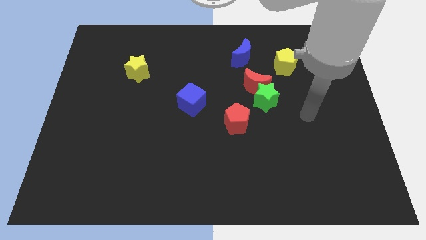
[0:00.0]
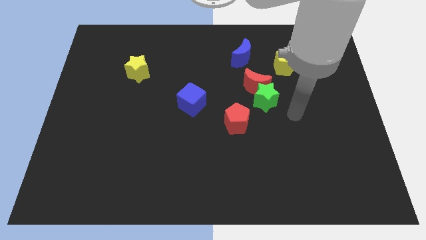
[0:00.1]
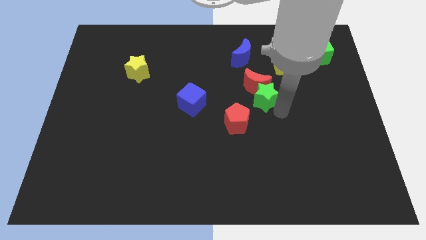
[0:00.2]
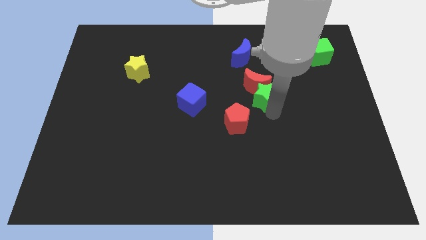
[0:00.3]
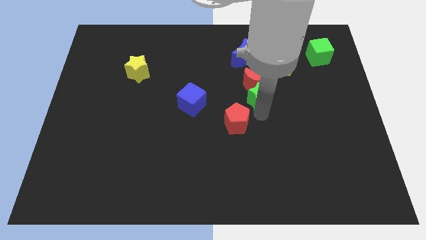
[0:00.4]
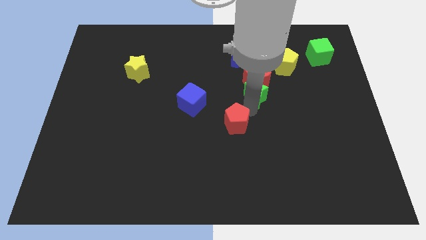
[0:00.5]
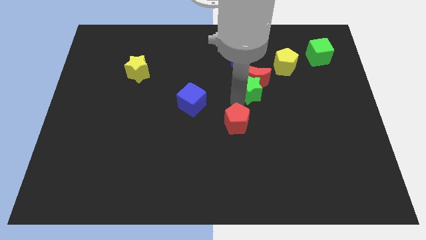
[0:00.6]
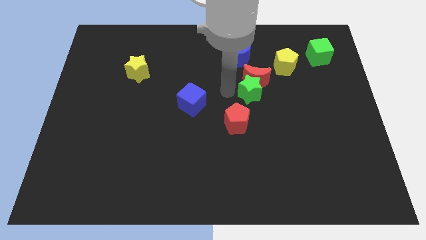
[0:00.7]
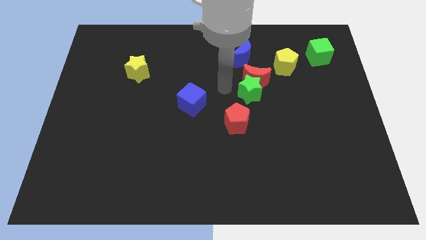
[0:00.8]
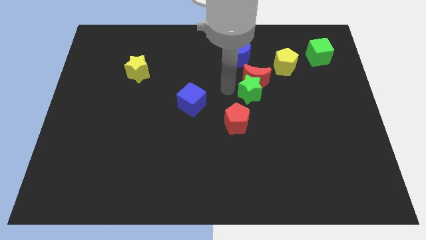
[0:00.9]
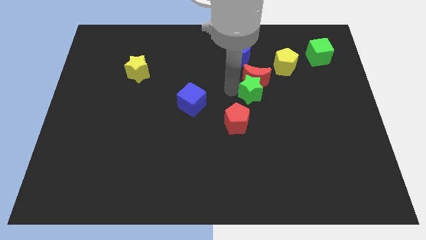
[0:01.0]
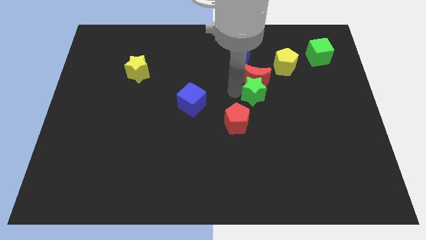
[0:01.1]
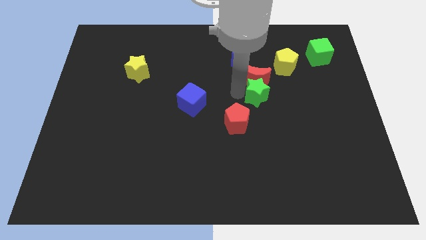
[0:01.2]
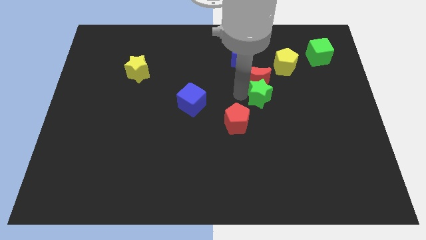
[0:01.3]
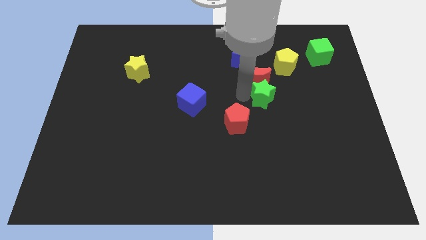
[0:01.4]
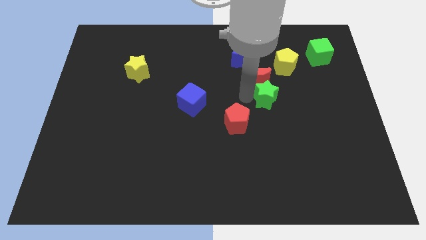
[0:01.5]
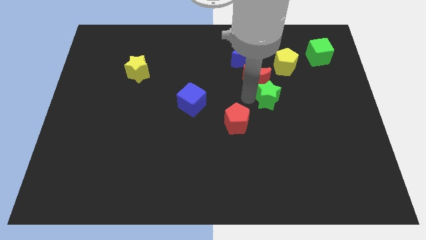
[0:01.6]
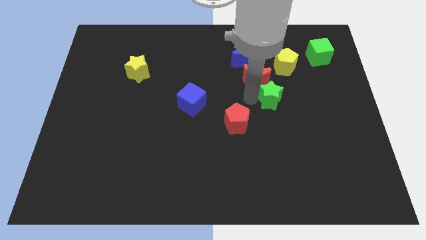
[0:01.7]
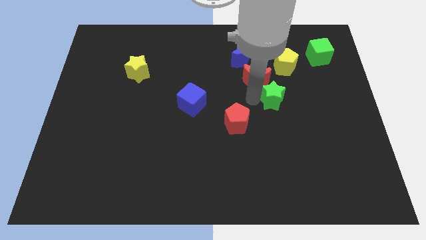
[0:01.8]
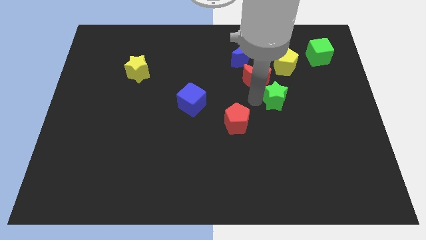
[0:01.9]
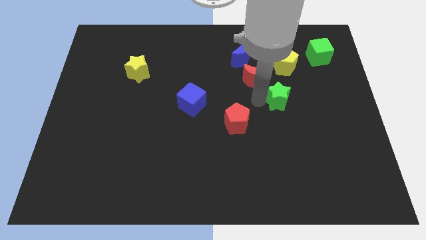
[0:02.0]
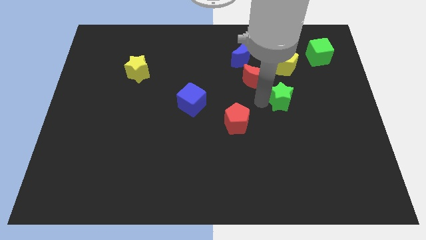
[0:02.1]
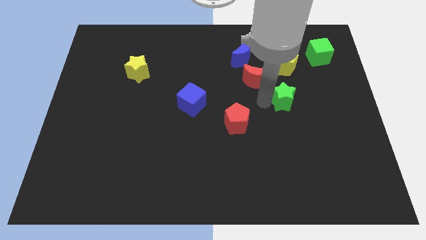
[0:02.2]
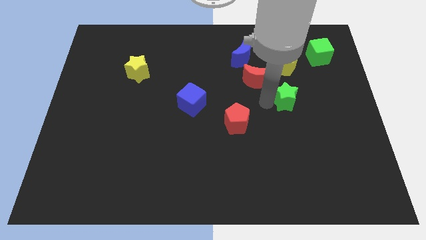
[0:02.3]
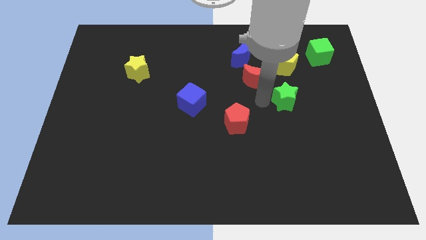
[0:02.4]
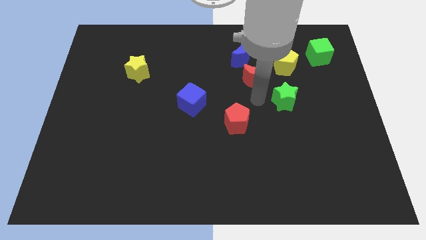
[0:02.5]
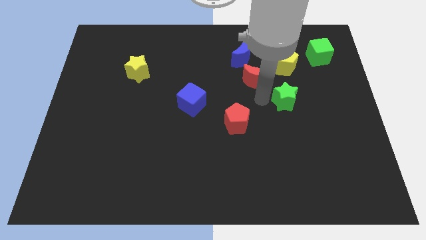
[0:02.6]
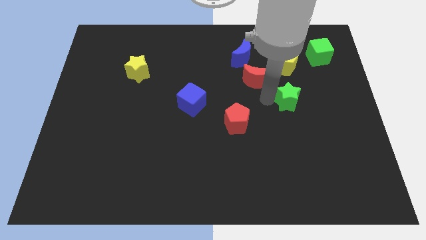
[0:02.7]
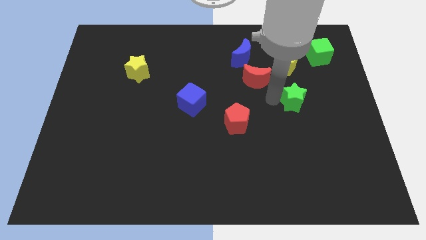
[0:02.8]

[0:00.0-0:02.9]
pull the green star apart from the red moon and red pentagon

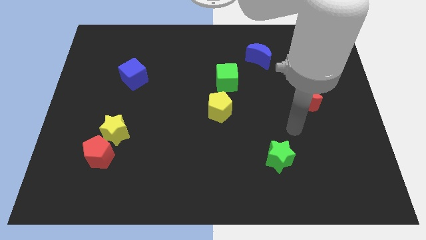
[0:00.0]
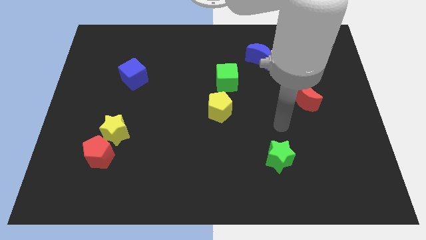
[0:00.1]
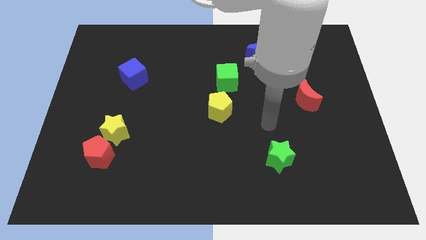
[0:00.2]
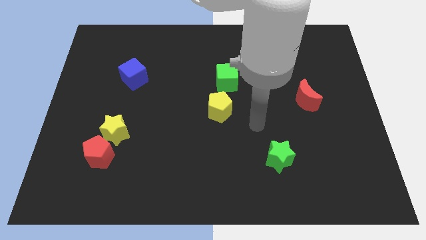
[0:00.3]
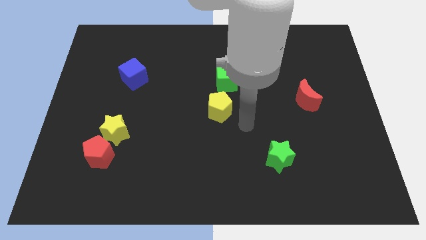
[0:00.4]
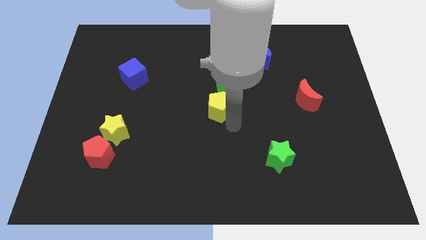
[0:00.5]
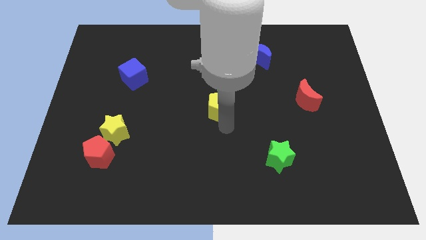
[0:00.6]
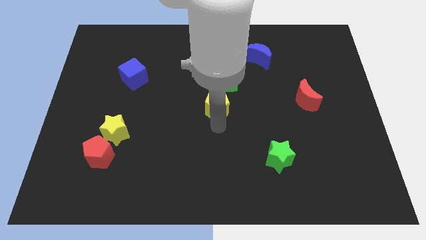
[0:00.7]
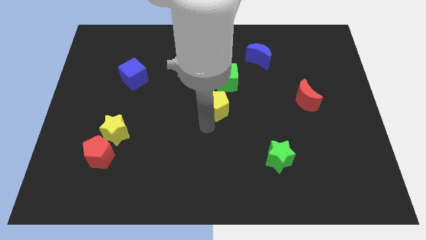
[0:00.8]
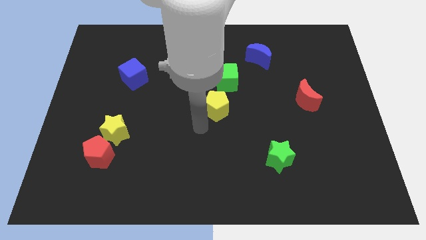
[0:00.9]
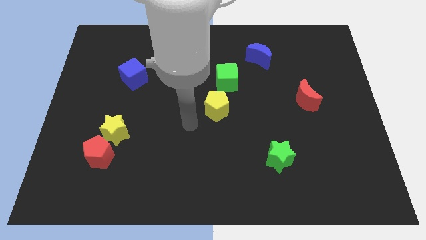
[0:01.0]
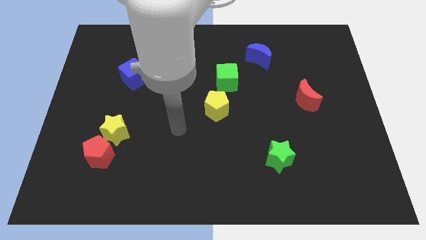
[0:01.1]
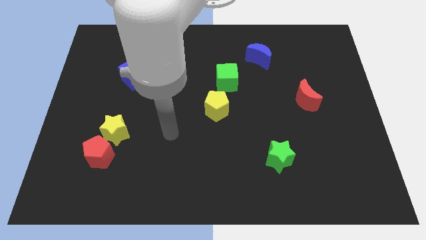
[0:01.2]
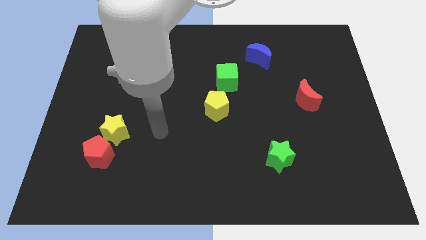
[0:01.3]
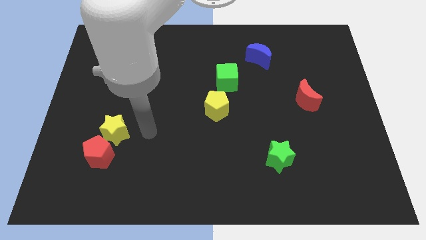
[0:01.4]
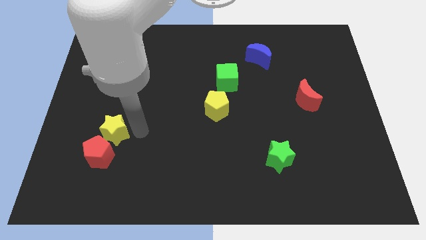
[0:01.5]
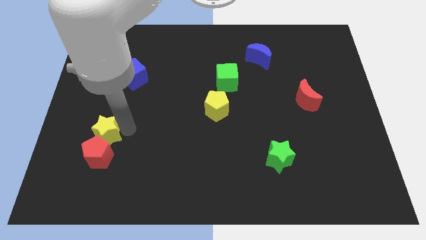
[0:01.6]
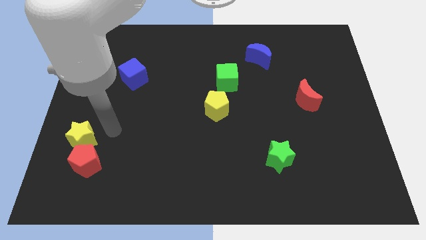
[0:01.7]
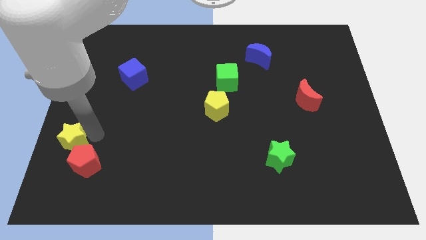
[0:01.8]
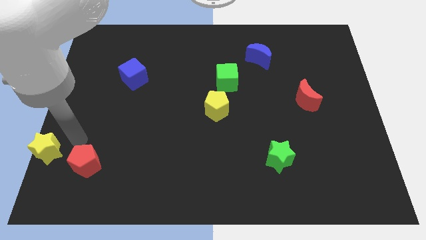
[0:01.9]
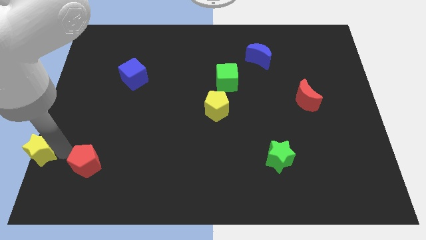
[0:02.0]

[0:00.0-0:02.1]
move the red pentagon away from the yellow star

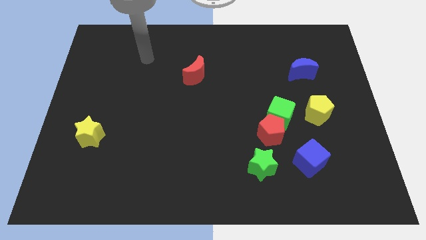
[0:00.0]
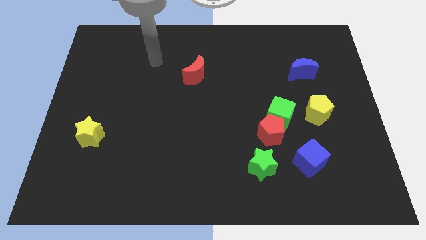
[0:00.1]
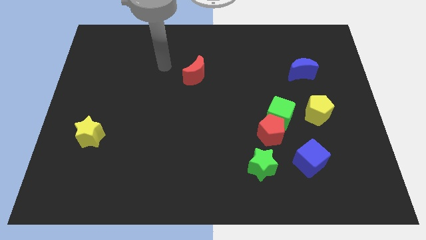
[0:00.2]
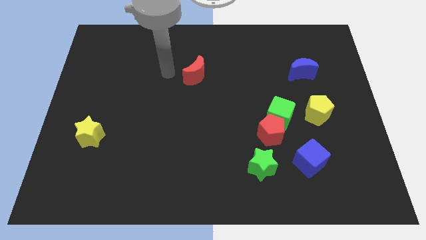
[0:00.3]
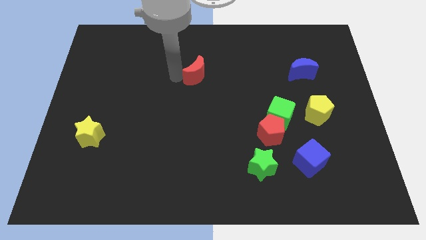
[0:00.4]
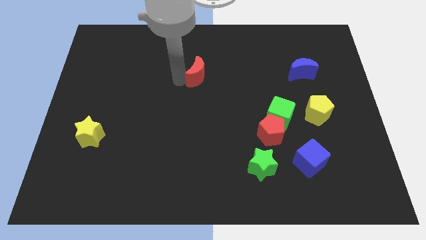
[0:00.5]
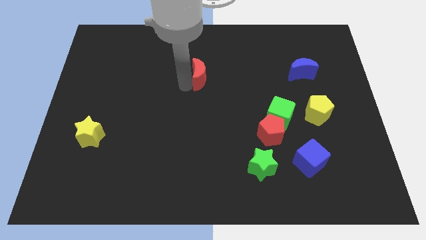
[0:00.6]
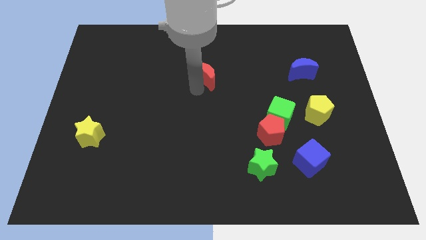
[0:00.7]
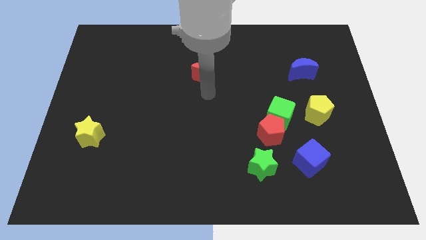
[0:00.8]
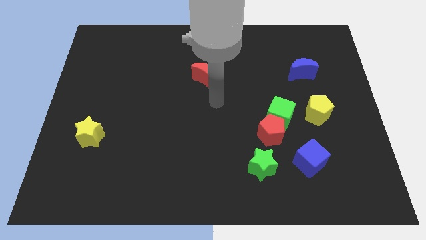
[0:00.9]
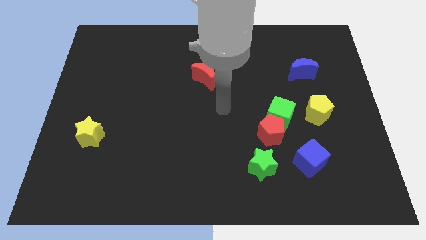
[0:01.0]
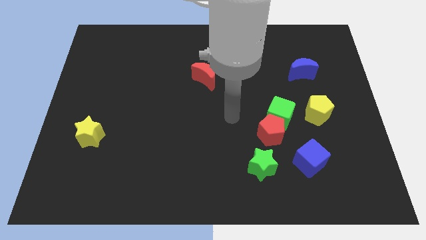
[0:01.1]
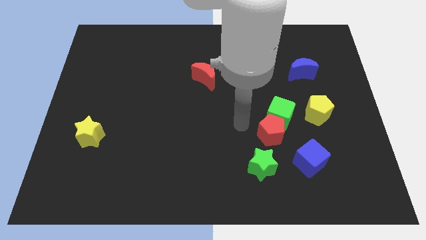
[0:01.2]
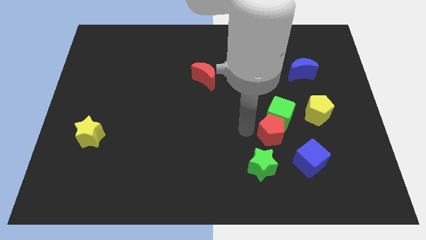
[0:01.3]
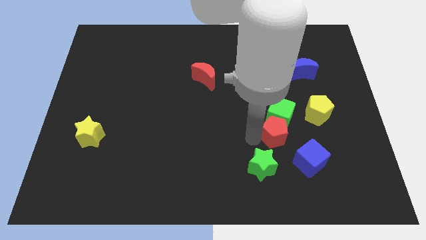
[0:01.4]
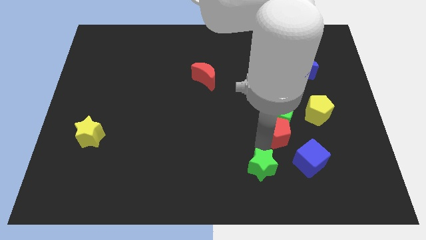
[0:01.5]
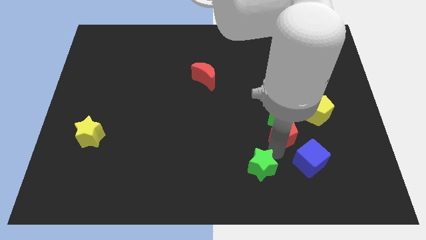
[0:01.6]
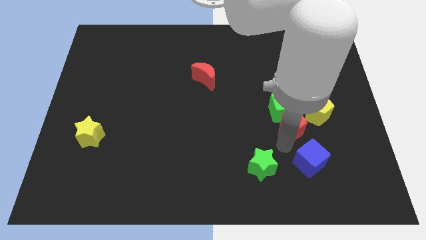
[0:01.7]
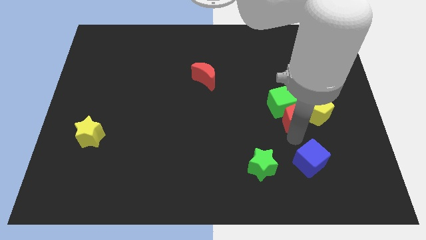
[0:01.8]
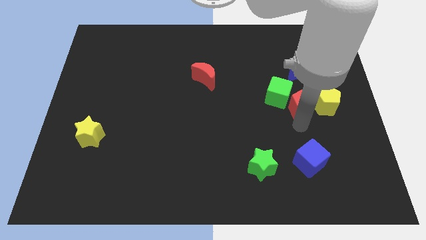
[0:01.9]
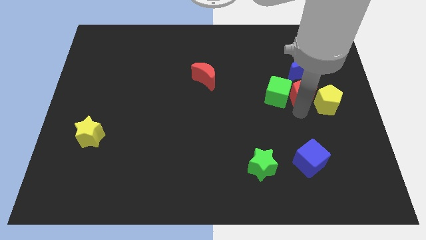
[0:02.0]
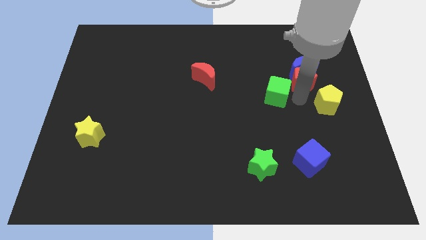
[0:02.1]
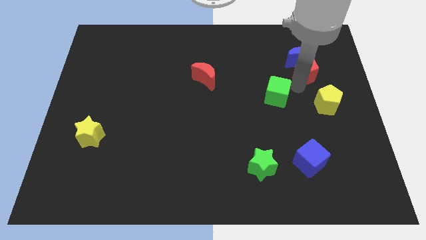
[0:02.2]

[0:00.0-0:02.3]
move the green cube away from the red pentagon and yellow pentagon

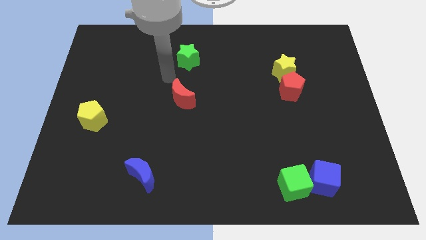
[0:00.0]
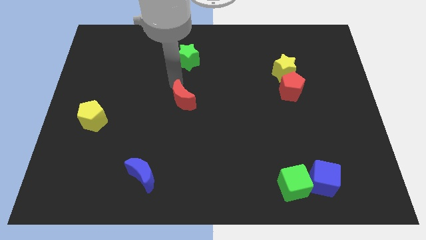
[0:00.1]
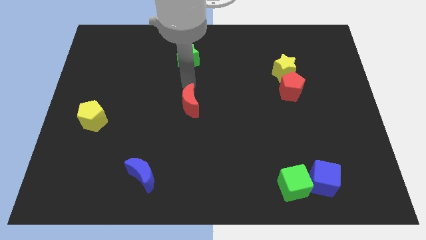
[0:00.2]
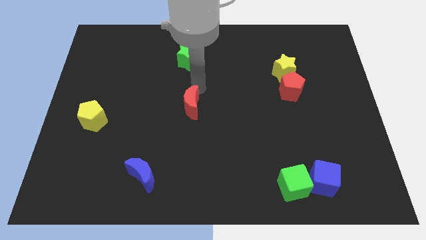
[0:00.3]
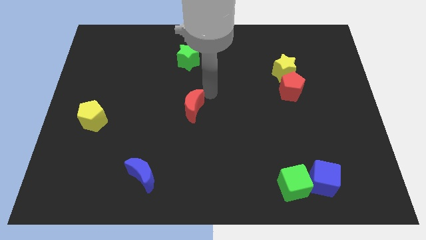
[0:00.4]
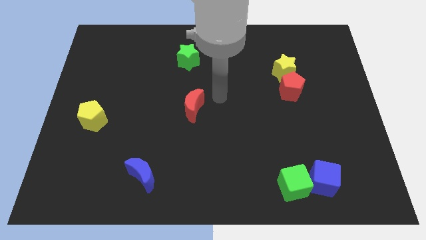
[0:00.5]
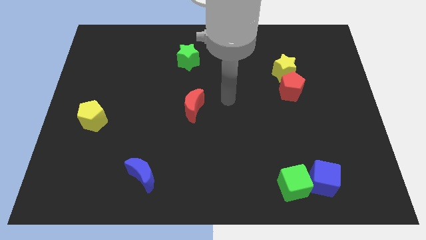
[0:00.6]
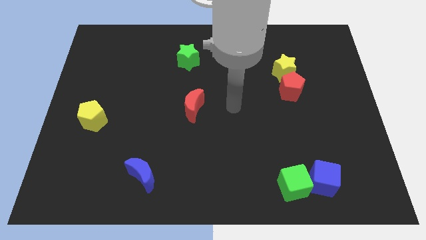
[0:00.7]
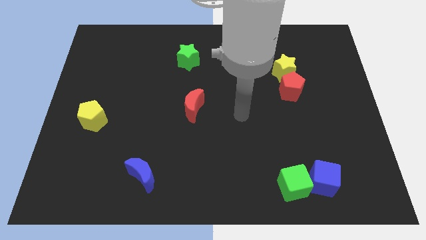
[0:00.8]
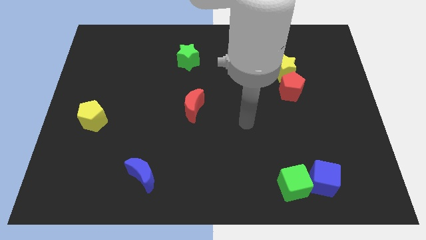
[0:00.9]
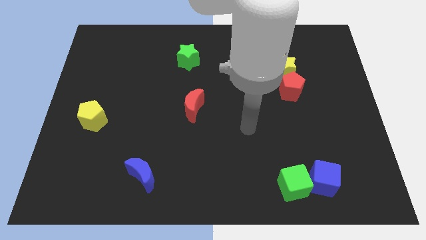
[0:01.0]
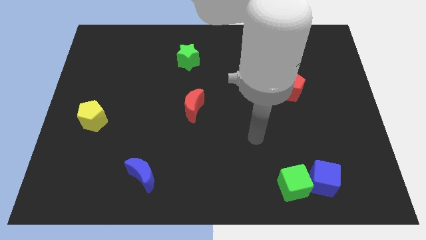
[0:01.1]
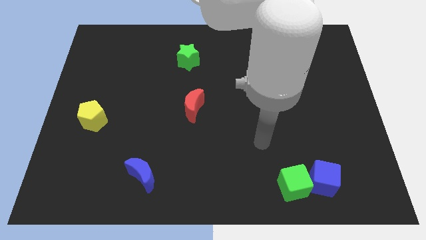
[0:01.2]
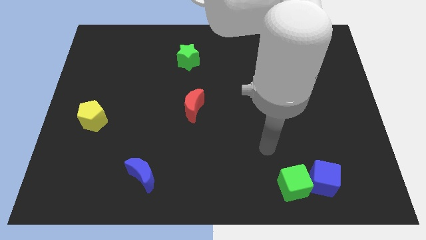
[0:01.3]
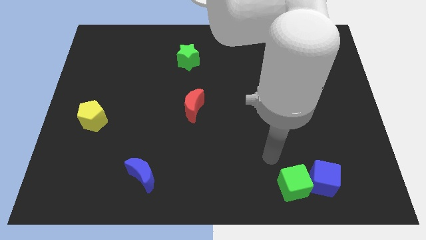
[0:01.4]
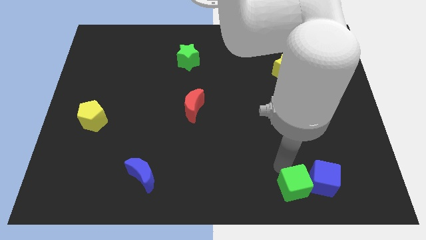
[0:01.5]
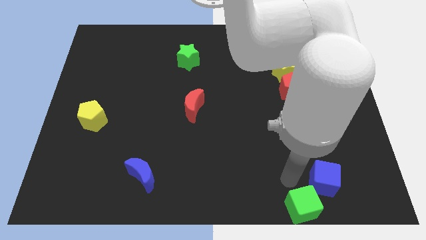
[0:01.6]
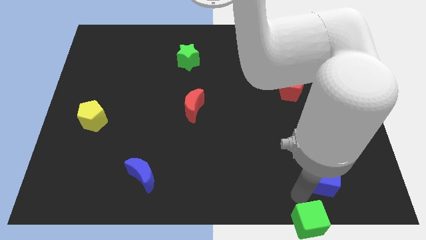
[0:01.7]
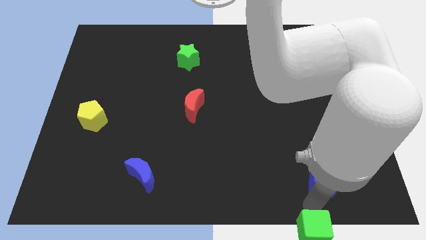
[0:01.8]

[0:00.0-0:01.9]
separate the blue cube from the green cube

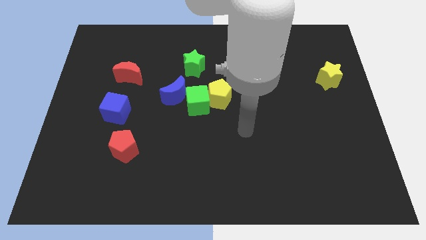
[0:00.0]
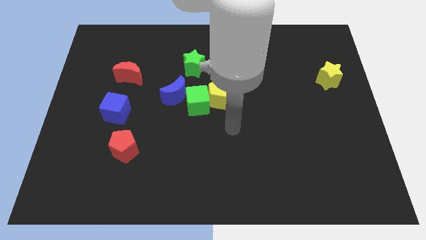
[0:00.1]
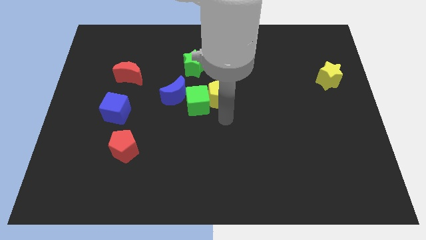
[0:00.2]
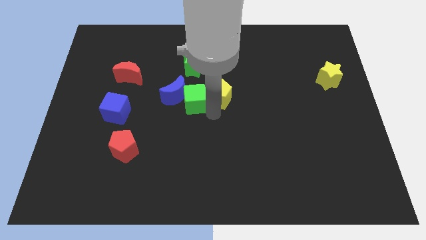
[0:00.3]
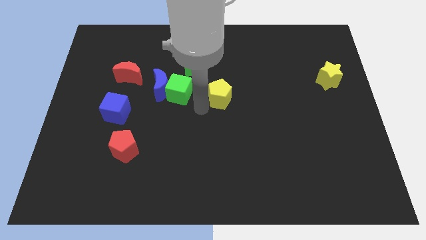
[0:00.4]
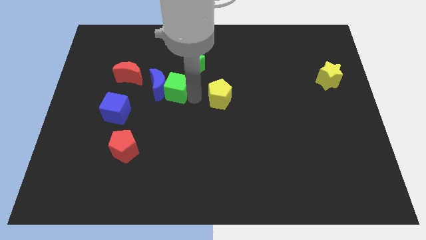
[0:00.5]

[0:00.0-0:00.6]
pull the yellow pentagon apart from the green cube
